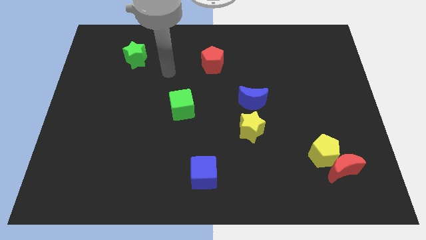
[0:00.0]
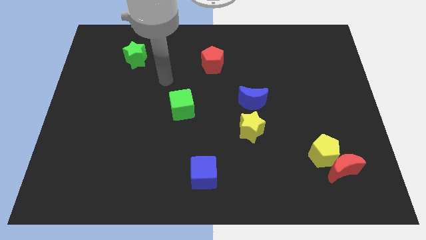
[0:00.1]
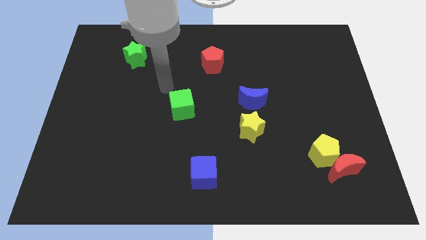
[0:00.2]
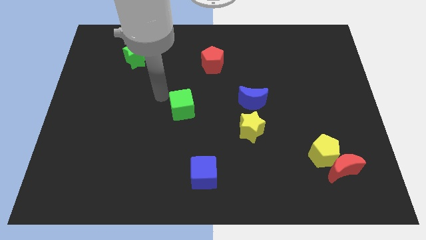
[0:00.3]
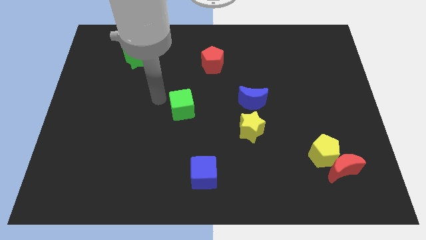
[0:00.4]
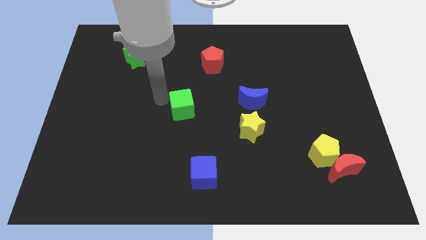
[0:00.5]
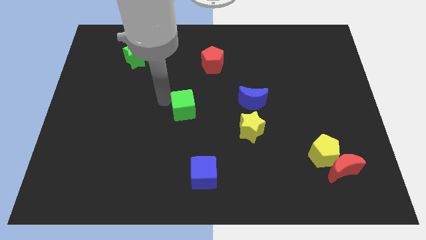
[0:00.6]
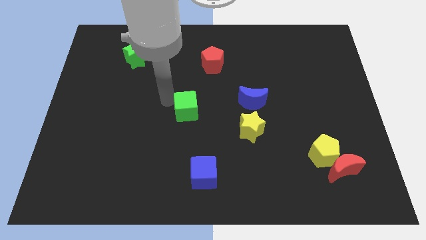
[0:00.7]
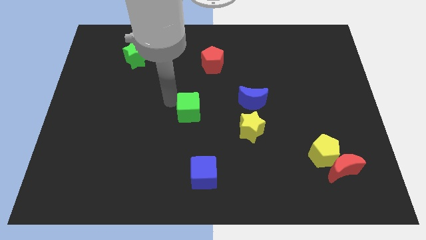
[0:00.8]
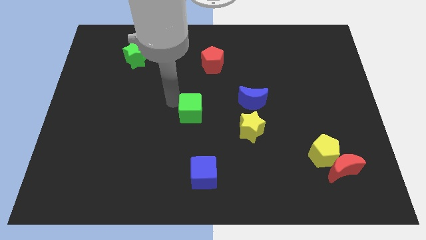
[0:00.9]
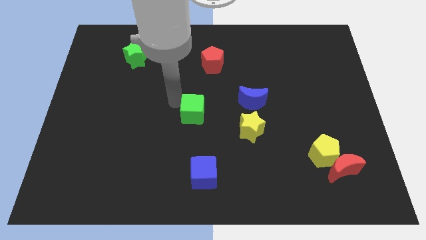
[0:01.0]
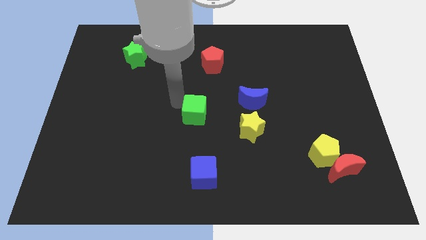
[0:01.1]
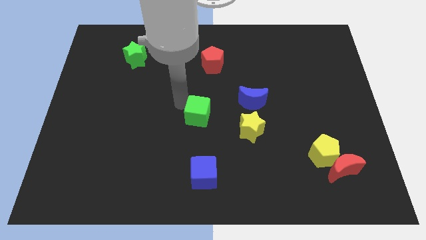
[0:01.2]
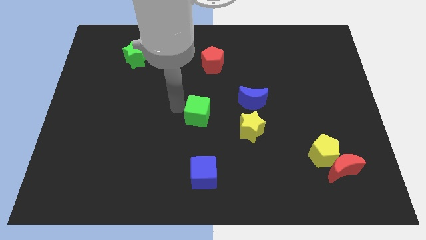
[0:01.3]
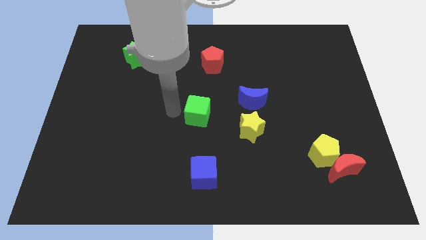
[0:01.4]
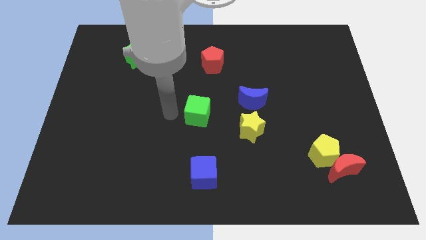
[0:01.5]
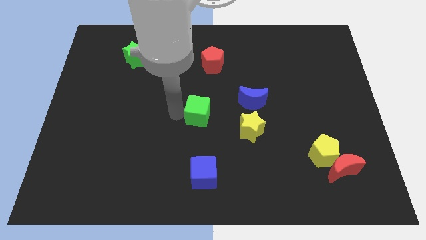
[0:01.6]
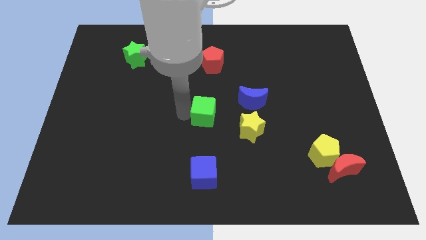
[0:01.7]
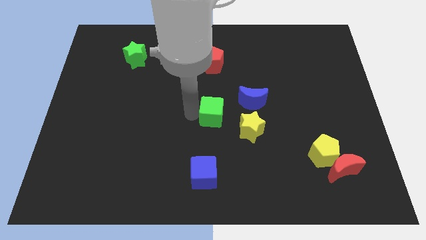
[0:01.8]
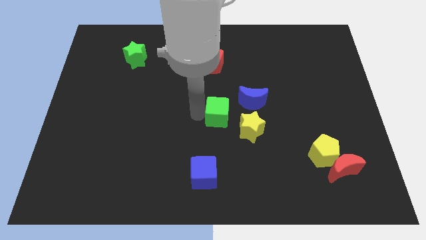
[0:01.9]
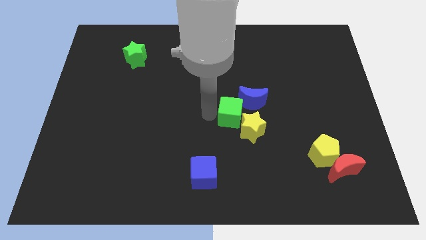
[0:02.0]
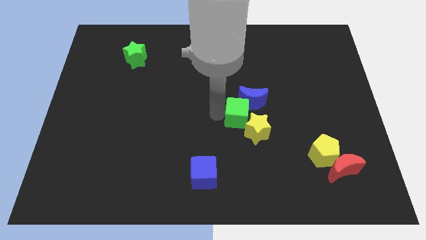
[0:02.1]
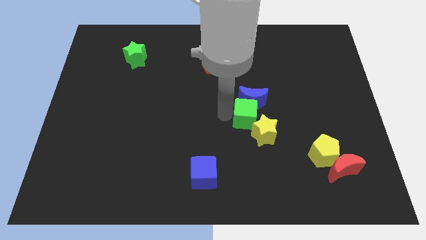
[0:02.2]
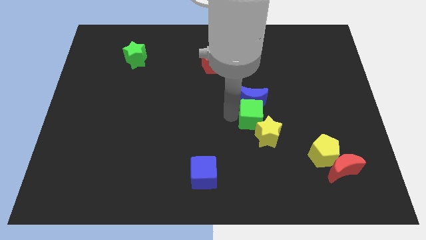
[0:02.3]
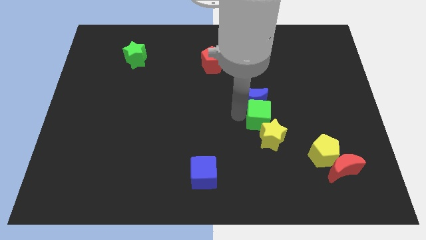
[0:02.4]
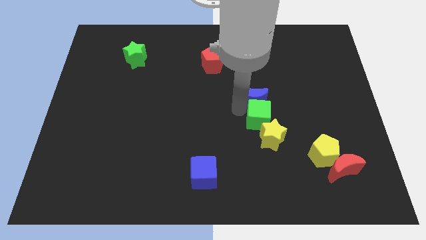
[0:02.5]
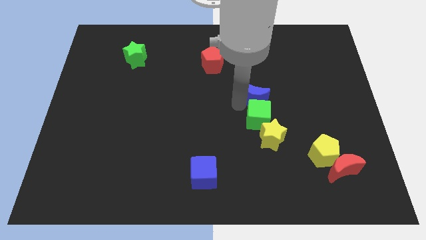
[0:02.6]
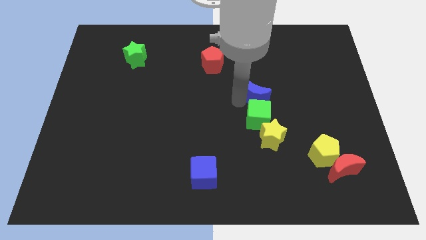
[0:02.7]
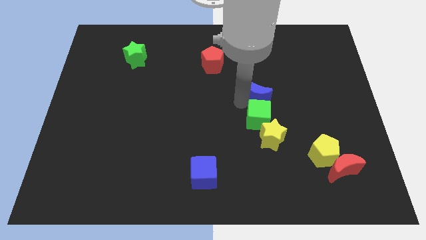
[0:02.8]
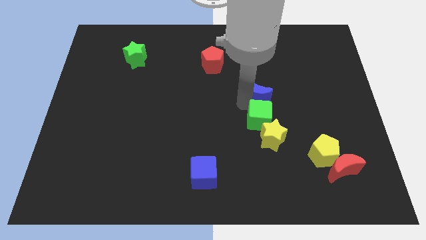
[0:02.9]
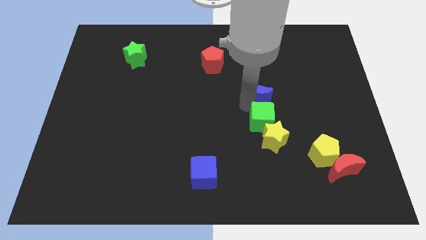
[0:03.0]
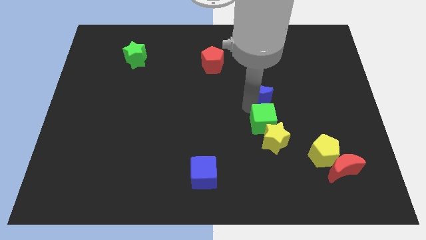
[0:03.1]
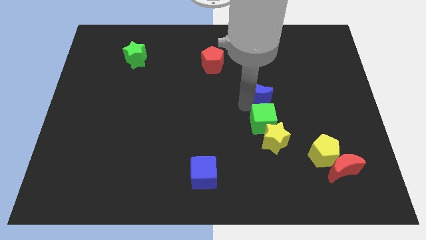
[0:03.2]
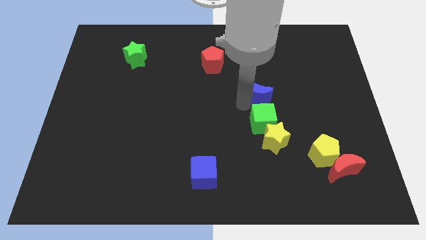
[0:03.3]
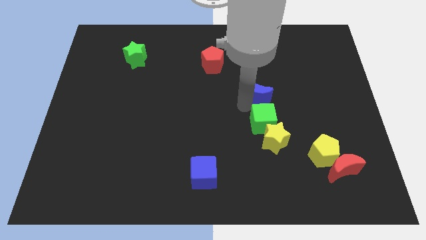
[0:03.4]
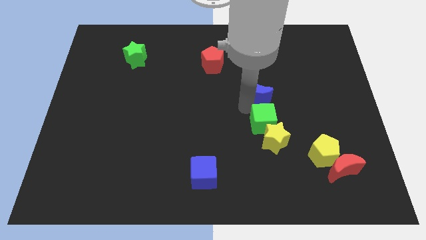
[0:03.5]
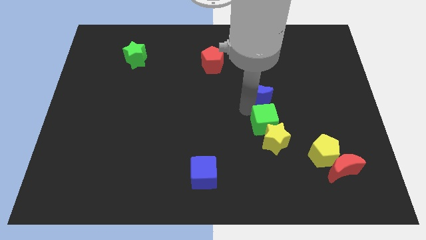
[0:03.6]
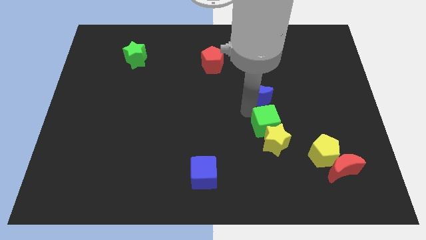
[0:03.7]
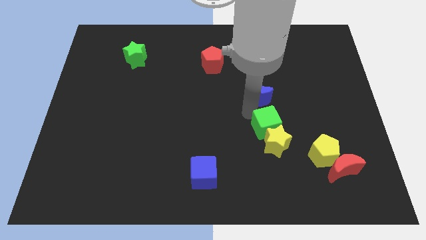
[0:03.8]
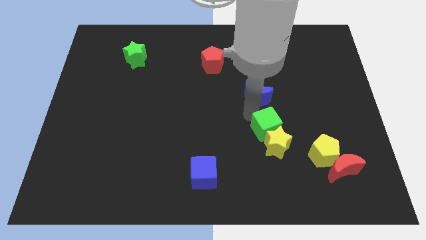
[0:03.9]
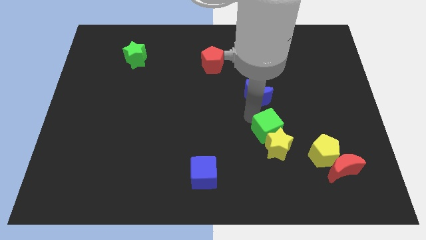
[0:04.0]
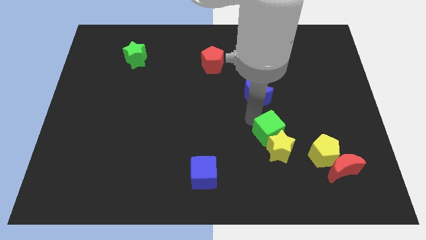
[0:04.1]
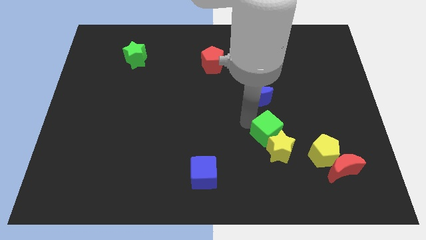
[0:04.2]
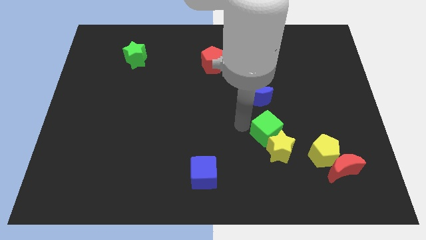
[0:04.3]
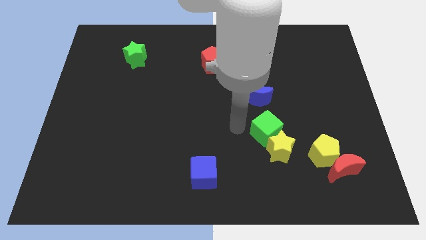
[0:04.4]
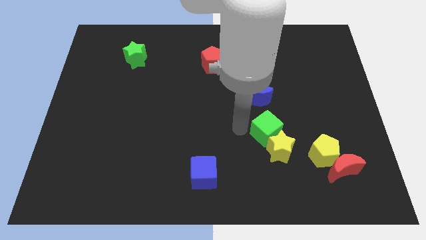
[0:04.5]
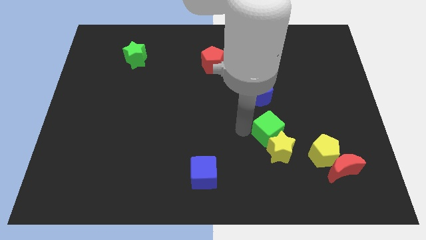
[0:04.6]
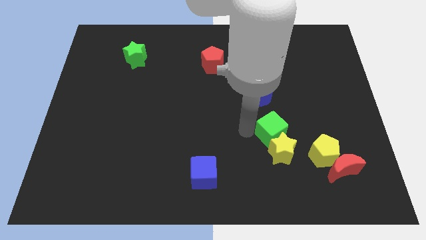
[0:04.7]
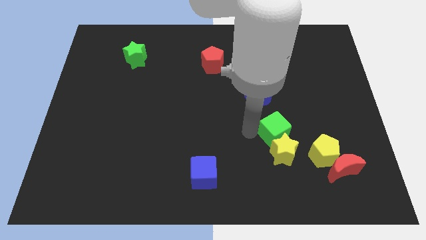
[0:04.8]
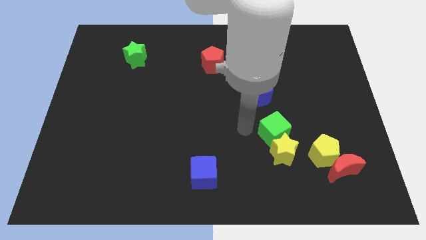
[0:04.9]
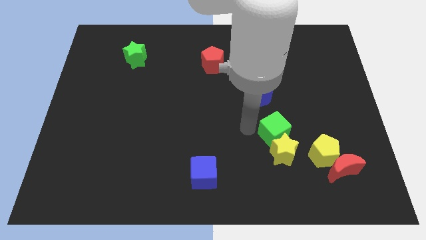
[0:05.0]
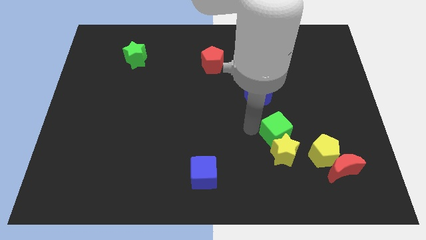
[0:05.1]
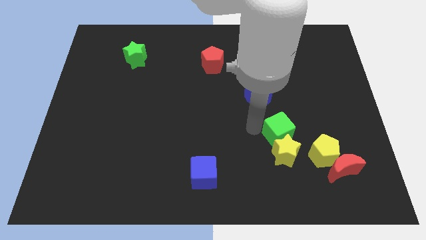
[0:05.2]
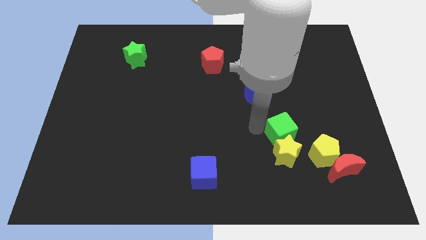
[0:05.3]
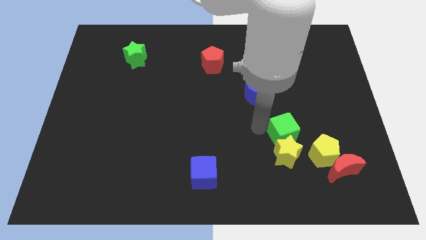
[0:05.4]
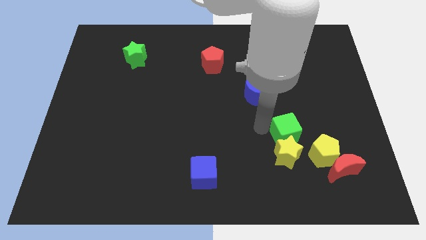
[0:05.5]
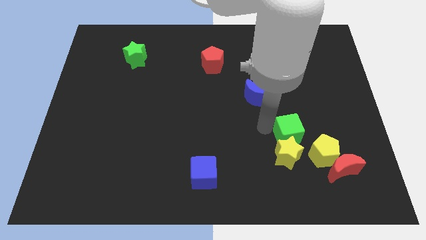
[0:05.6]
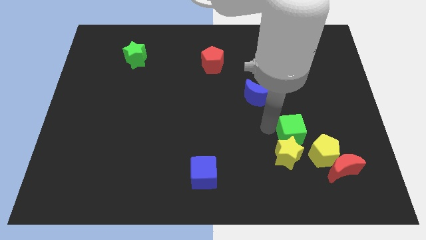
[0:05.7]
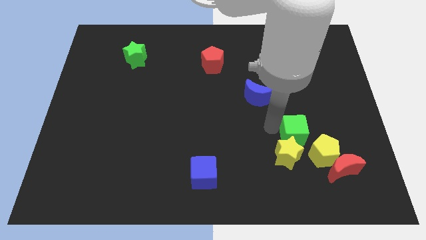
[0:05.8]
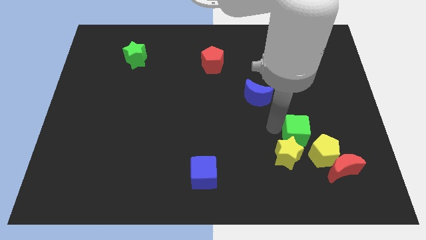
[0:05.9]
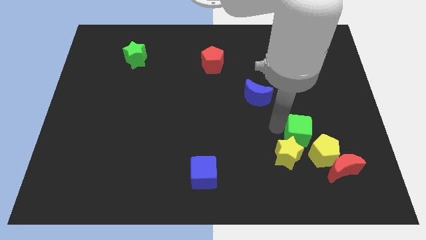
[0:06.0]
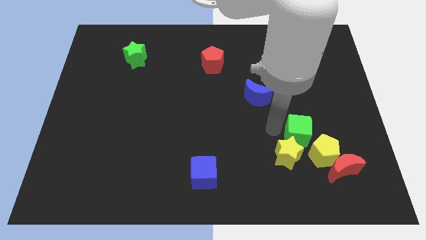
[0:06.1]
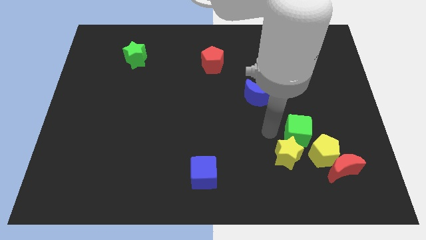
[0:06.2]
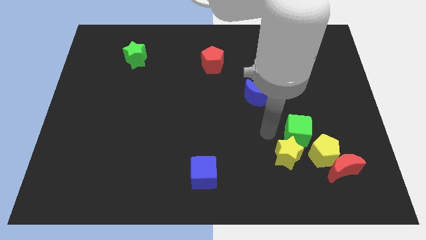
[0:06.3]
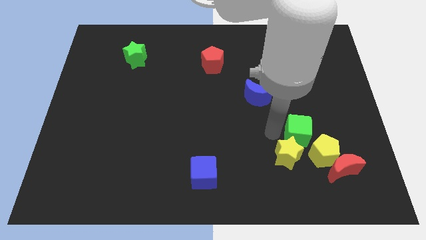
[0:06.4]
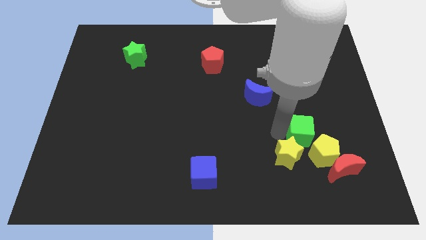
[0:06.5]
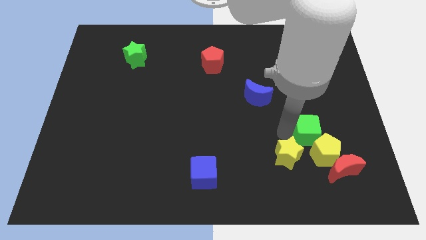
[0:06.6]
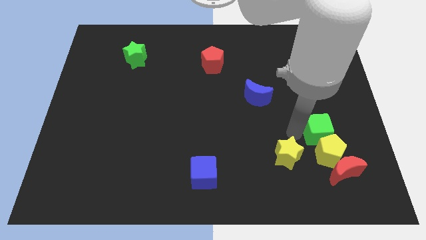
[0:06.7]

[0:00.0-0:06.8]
move the green cube diagonally up and to the right of the yellow pentagon
